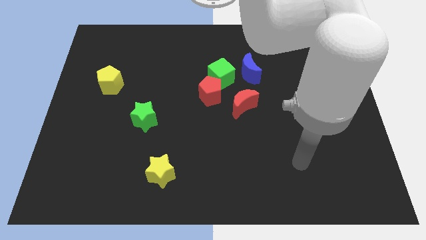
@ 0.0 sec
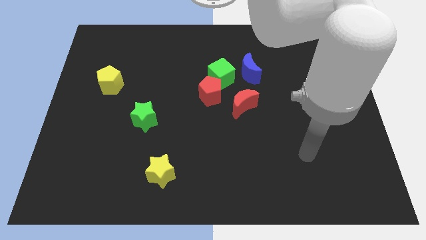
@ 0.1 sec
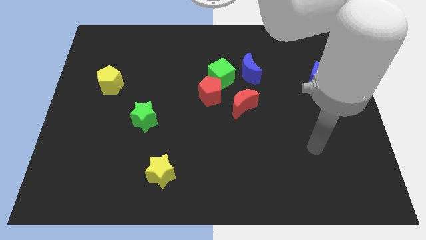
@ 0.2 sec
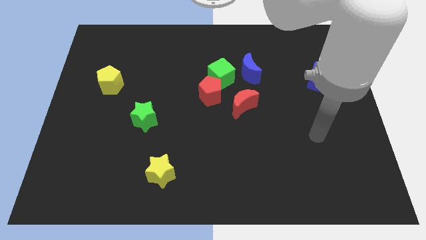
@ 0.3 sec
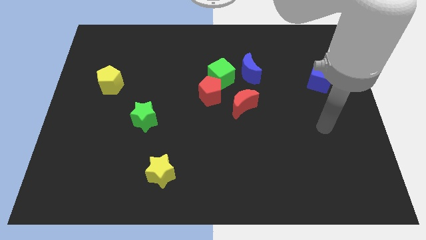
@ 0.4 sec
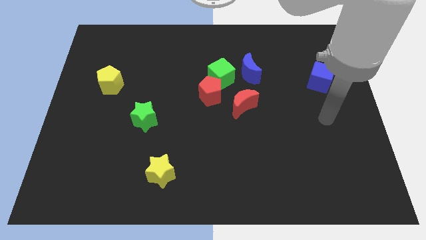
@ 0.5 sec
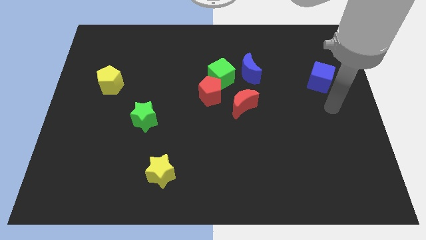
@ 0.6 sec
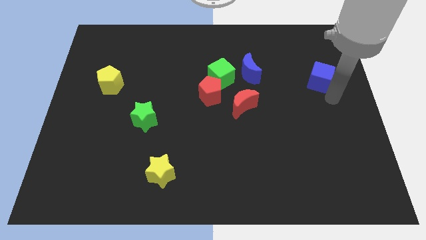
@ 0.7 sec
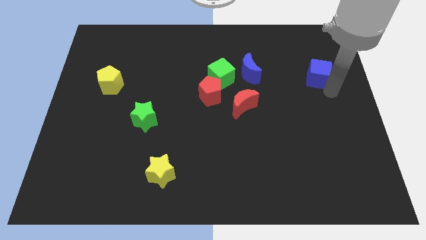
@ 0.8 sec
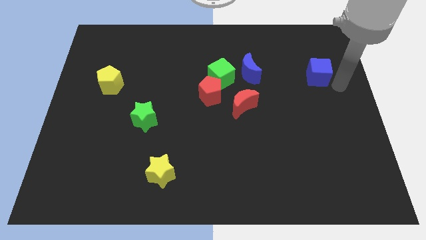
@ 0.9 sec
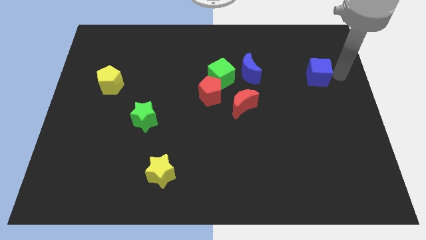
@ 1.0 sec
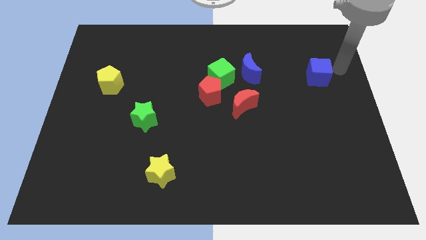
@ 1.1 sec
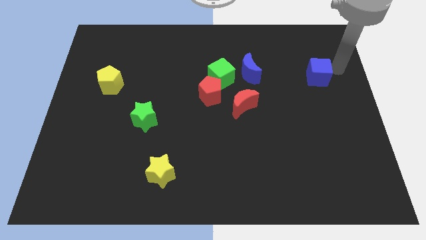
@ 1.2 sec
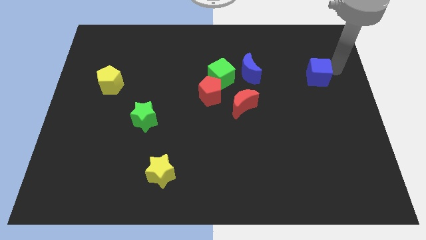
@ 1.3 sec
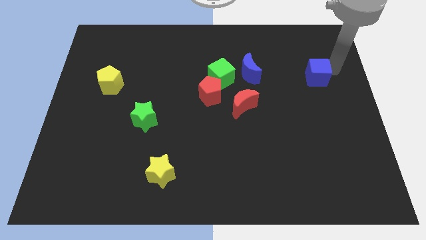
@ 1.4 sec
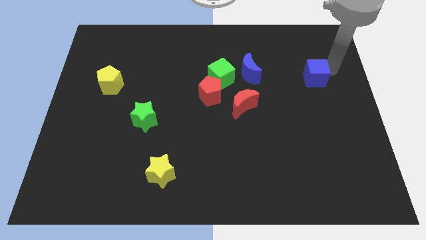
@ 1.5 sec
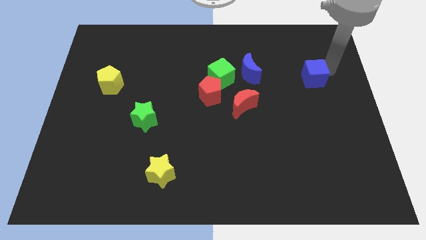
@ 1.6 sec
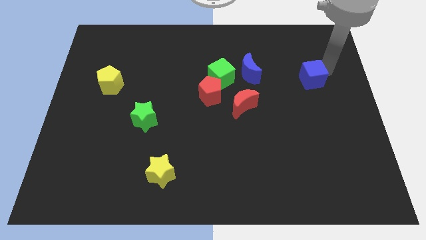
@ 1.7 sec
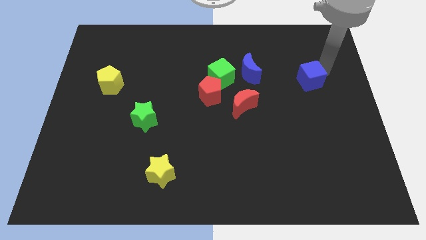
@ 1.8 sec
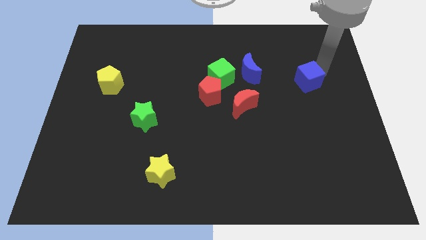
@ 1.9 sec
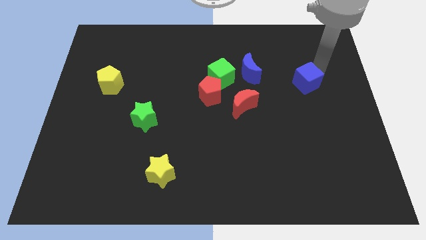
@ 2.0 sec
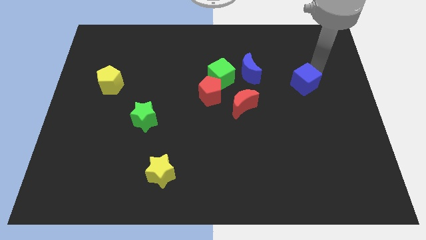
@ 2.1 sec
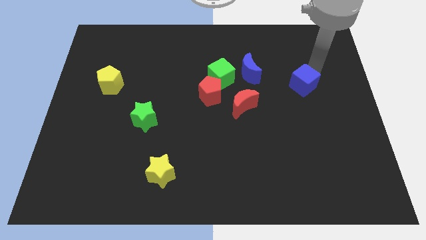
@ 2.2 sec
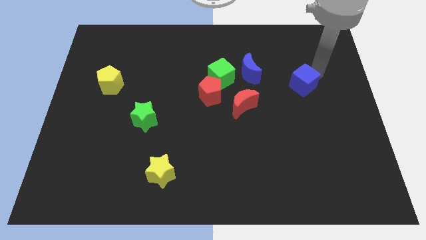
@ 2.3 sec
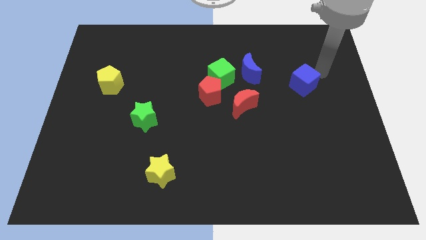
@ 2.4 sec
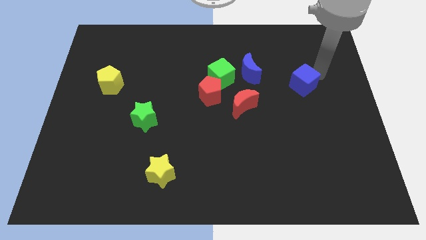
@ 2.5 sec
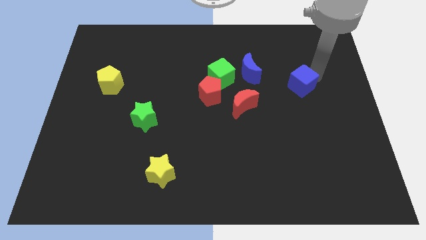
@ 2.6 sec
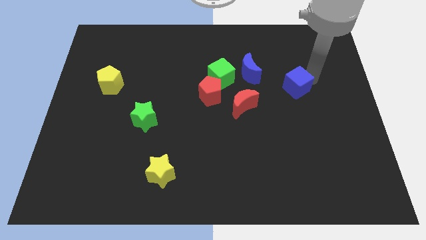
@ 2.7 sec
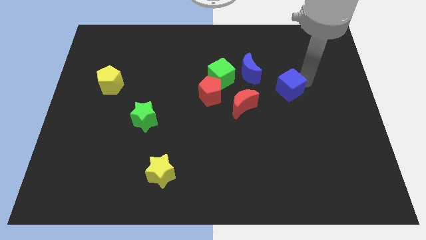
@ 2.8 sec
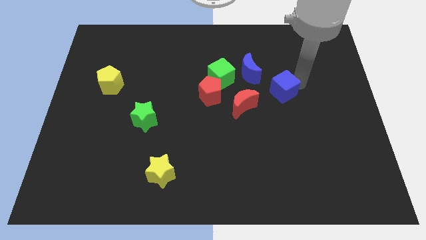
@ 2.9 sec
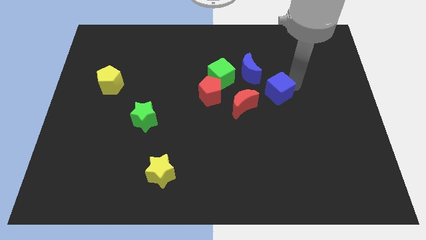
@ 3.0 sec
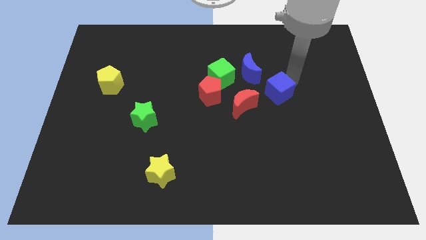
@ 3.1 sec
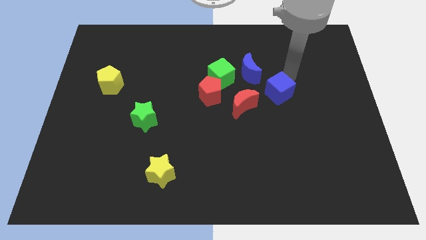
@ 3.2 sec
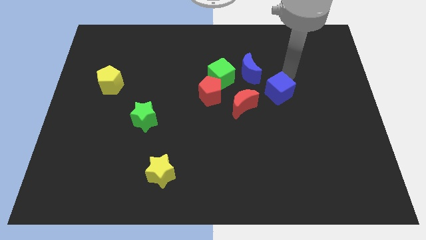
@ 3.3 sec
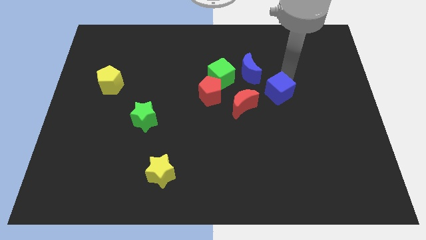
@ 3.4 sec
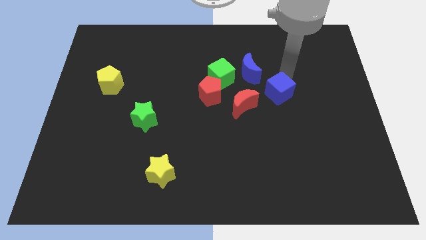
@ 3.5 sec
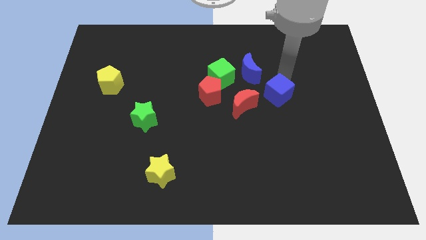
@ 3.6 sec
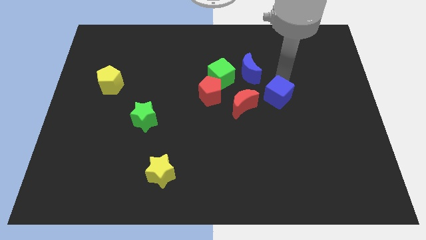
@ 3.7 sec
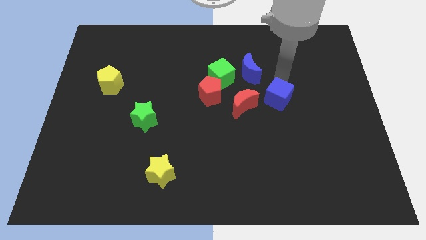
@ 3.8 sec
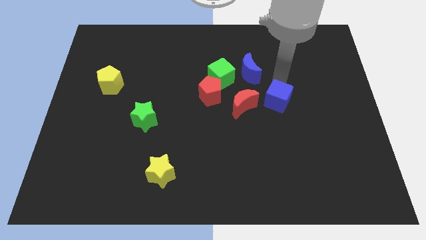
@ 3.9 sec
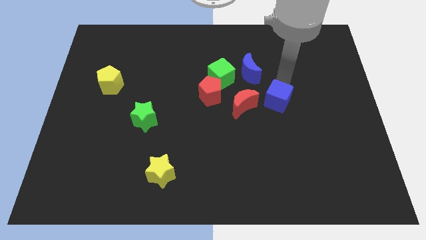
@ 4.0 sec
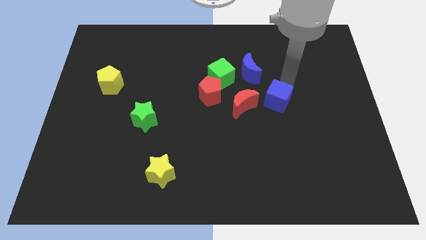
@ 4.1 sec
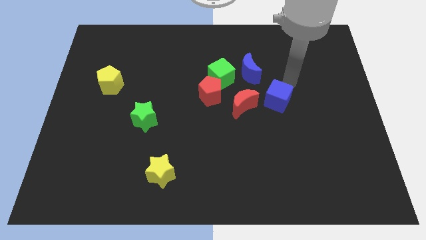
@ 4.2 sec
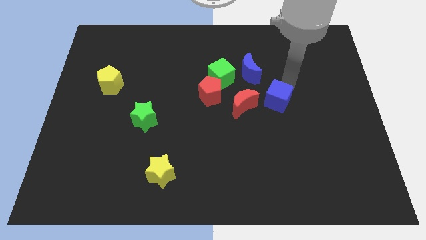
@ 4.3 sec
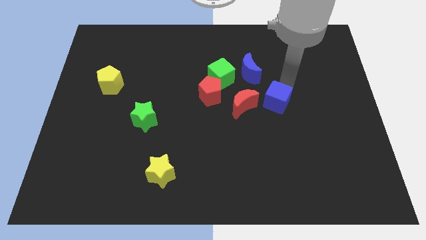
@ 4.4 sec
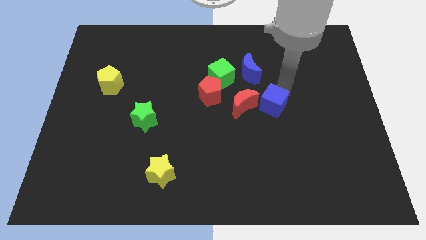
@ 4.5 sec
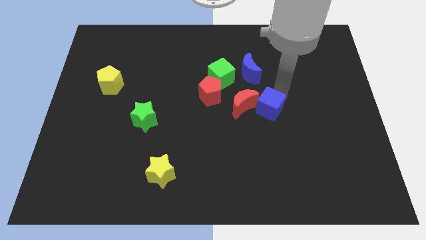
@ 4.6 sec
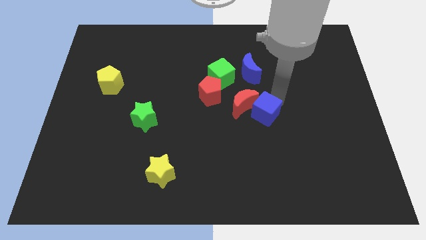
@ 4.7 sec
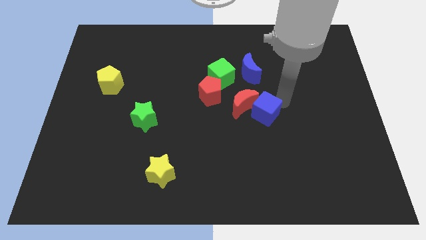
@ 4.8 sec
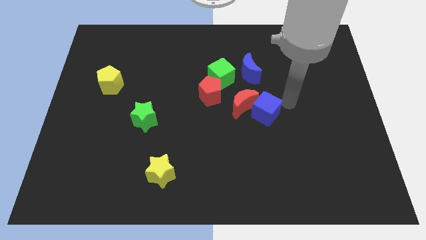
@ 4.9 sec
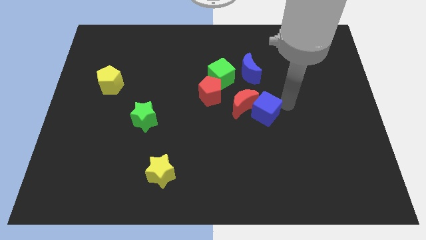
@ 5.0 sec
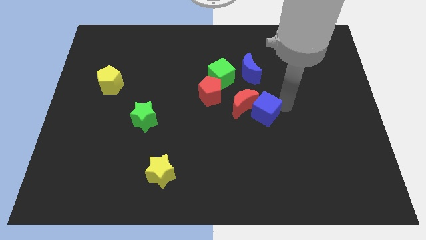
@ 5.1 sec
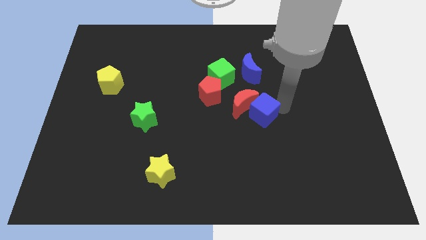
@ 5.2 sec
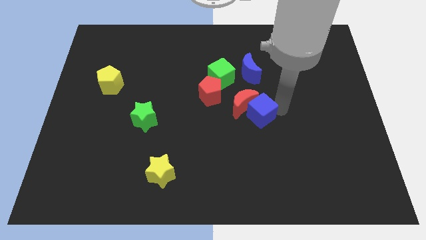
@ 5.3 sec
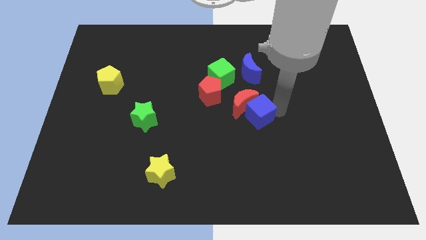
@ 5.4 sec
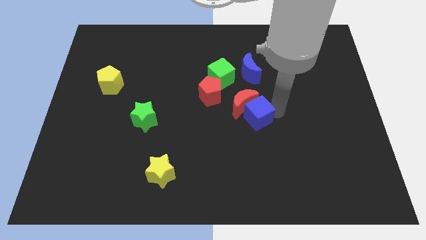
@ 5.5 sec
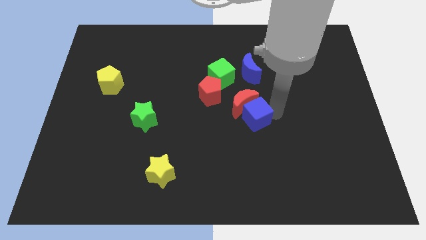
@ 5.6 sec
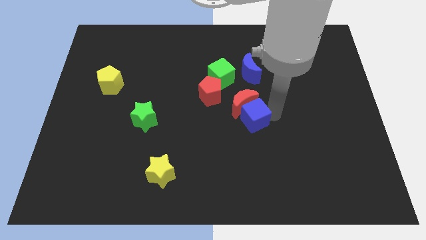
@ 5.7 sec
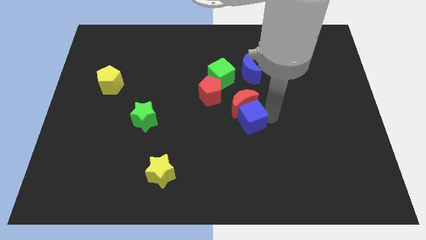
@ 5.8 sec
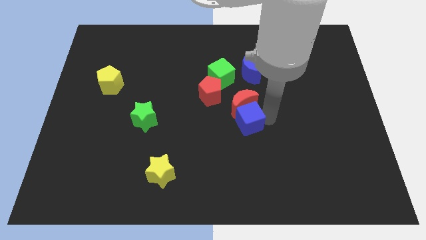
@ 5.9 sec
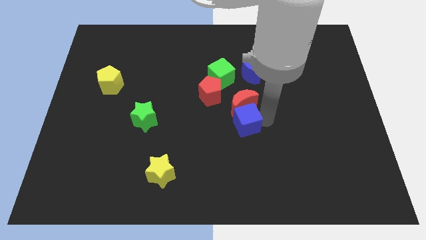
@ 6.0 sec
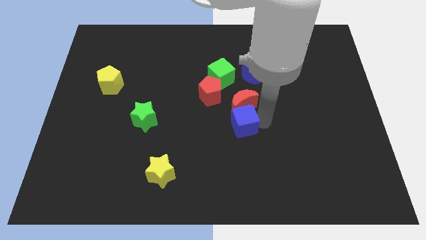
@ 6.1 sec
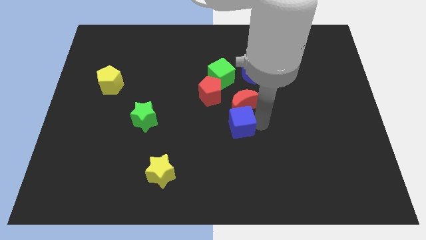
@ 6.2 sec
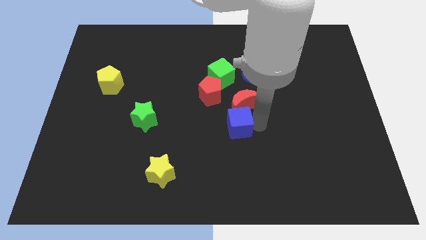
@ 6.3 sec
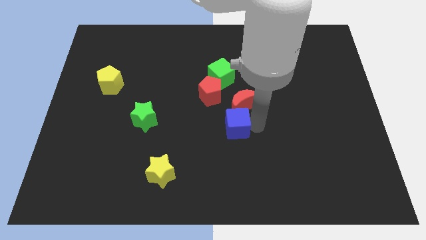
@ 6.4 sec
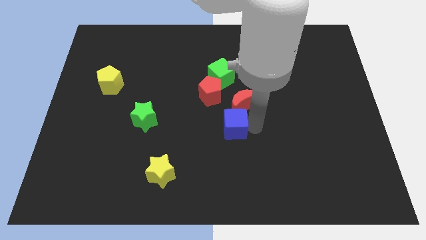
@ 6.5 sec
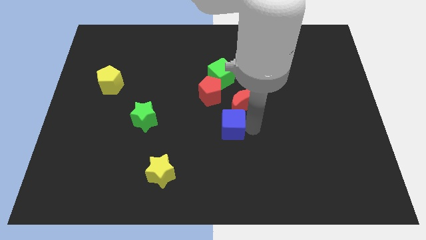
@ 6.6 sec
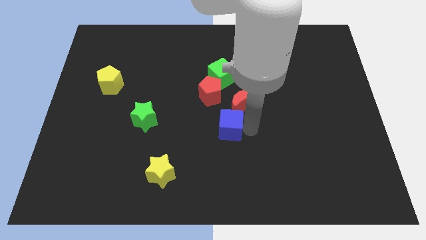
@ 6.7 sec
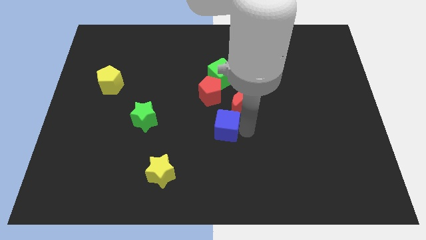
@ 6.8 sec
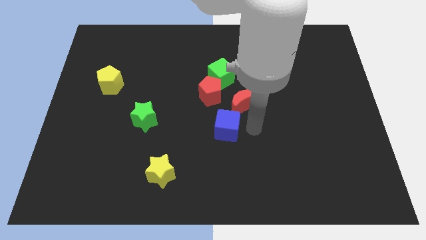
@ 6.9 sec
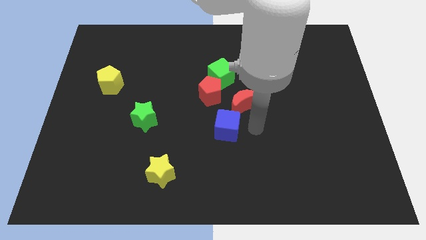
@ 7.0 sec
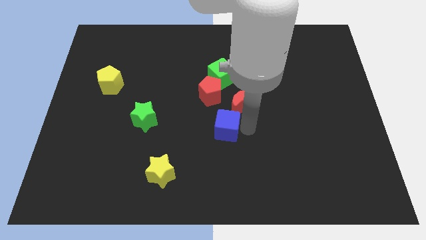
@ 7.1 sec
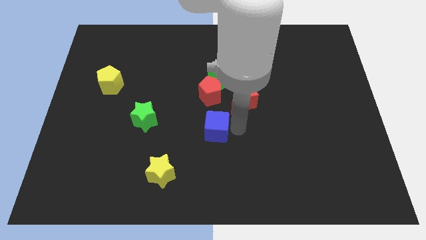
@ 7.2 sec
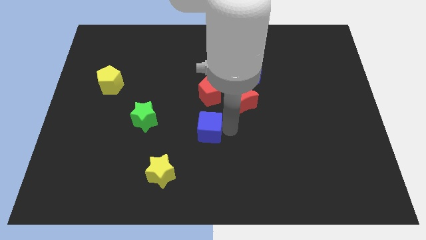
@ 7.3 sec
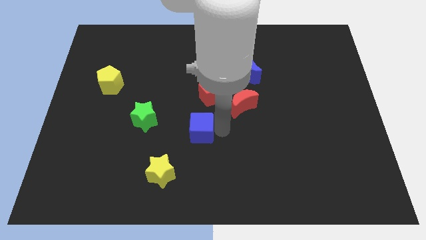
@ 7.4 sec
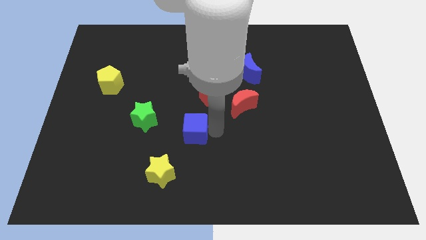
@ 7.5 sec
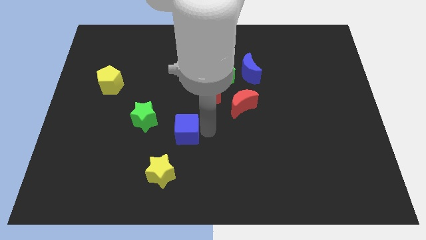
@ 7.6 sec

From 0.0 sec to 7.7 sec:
move the blue cube to the bottom right of the green star

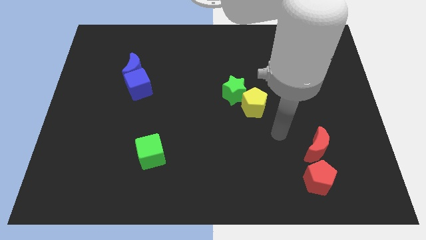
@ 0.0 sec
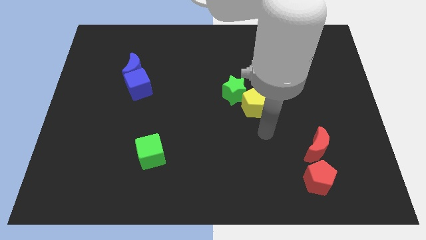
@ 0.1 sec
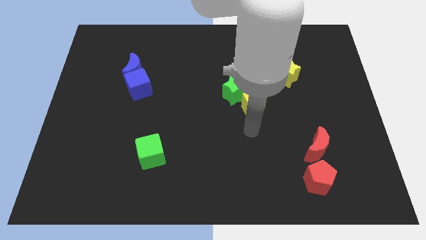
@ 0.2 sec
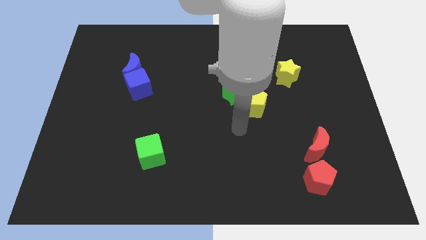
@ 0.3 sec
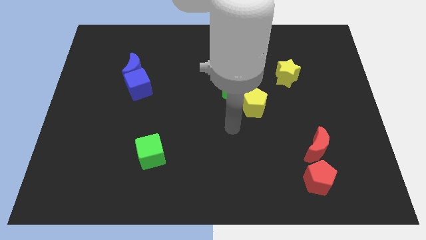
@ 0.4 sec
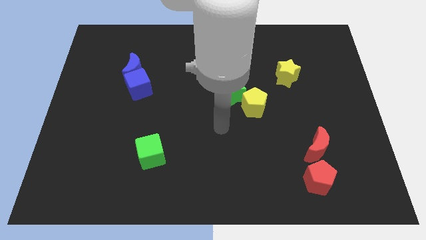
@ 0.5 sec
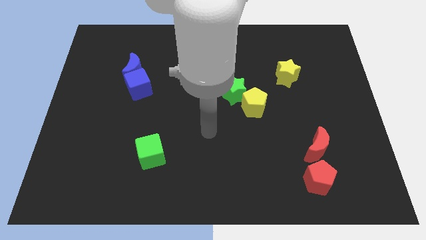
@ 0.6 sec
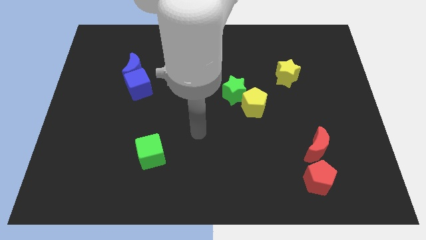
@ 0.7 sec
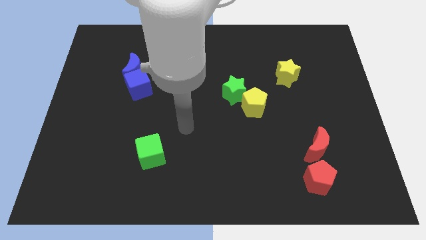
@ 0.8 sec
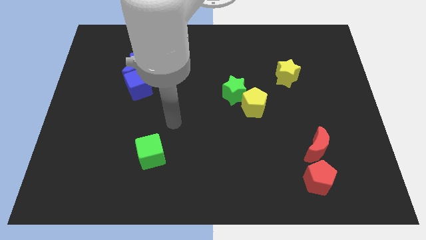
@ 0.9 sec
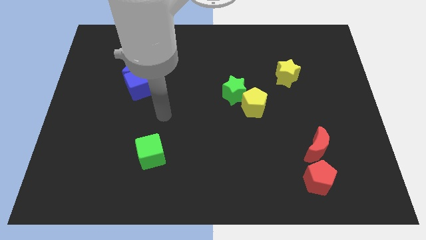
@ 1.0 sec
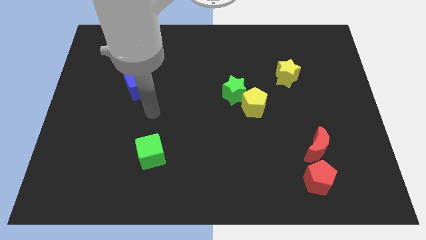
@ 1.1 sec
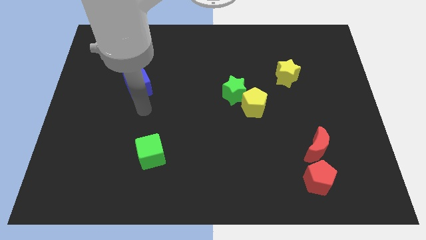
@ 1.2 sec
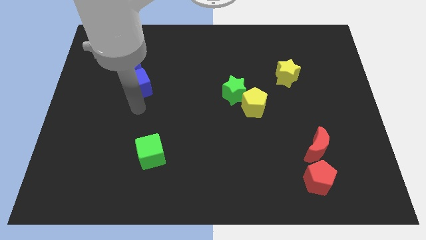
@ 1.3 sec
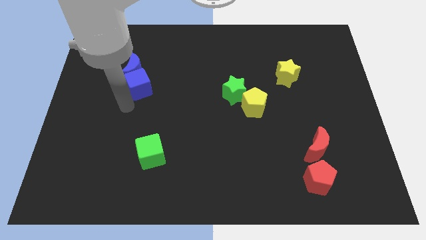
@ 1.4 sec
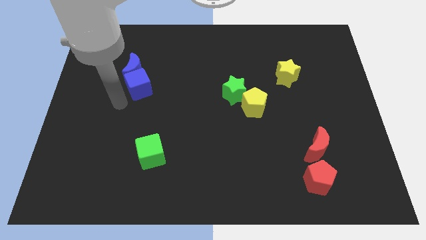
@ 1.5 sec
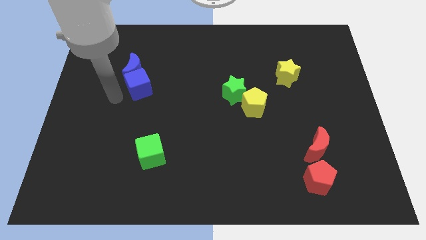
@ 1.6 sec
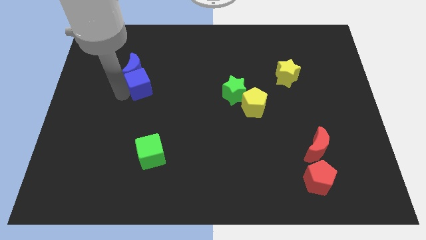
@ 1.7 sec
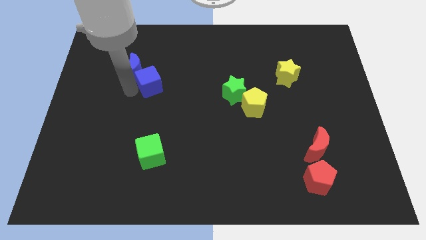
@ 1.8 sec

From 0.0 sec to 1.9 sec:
put the blue cube just right of the blue moon
